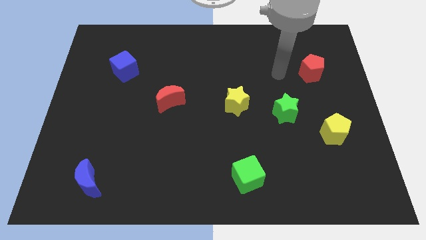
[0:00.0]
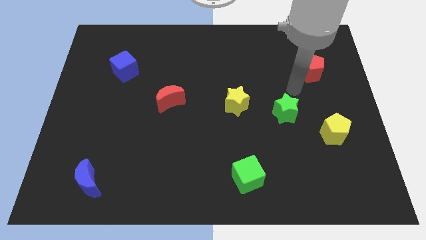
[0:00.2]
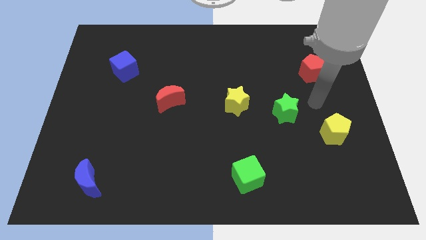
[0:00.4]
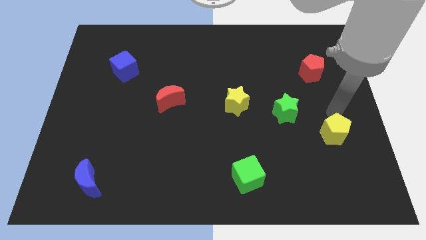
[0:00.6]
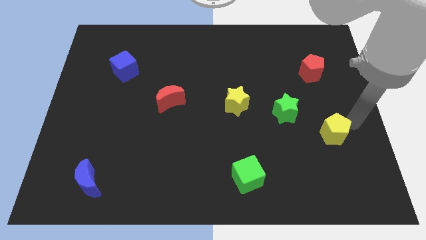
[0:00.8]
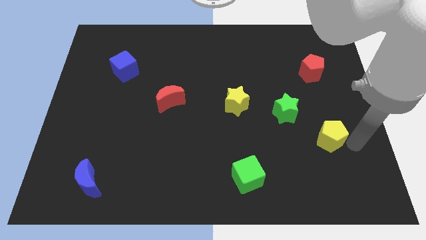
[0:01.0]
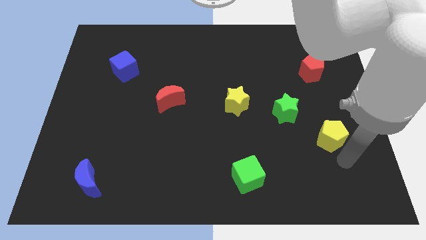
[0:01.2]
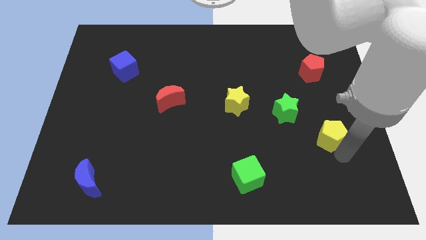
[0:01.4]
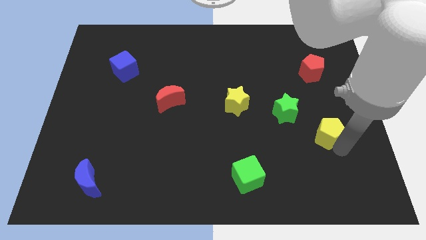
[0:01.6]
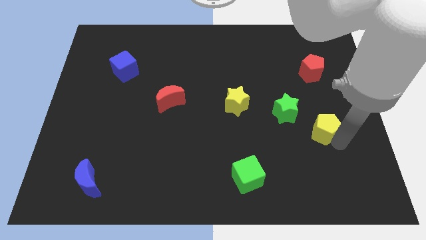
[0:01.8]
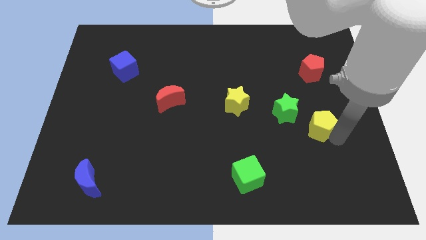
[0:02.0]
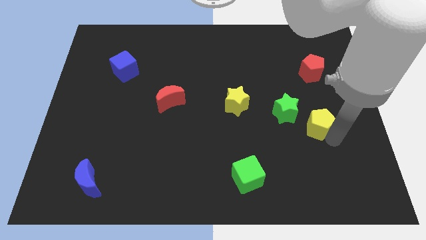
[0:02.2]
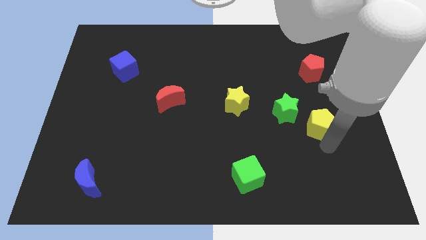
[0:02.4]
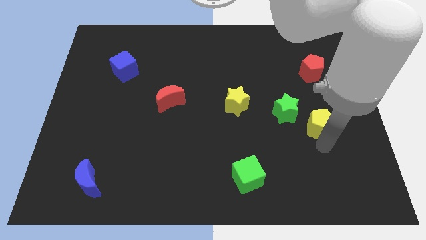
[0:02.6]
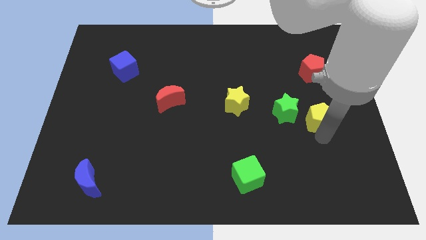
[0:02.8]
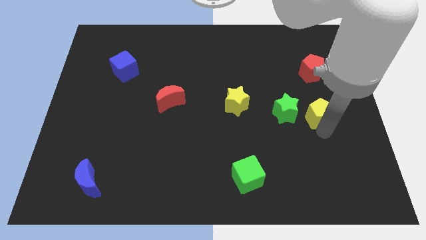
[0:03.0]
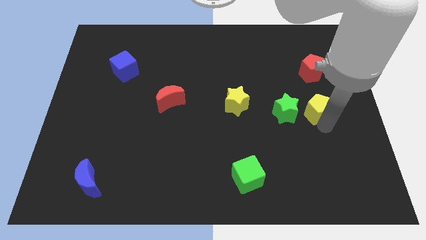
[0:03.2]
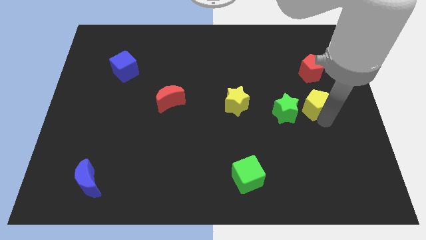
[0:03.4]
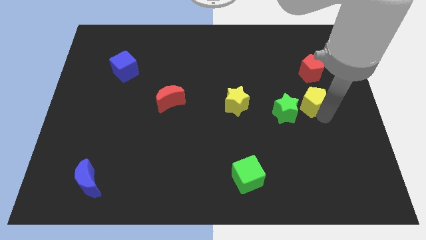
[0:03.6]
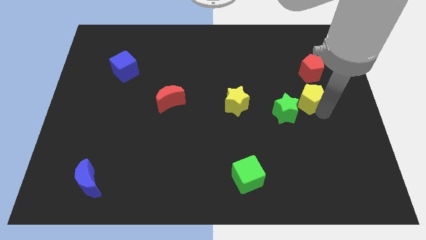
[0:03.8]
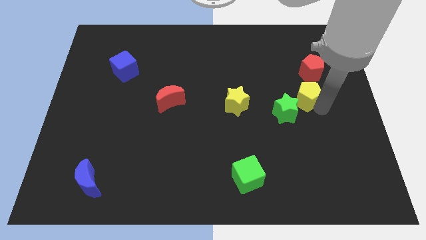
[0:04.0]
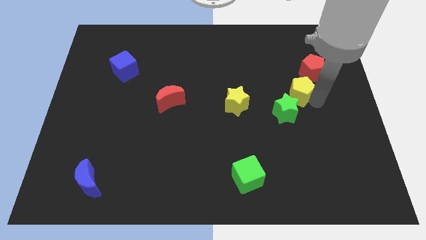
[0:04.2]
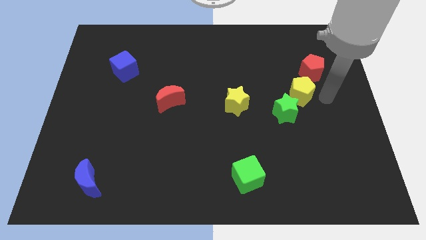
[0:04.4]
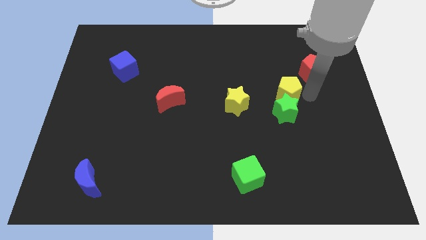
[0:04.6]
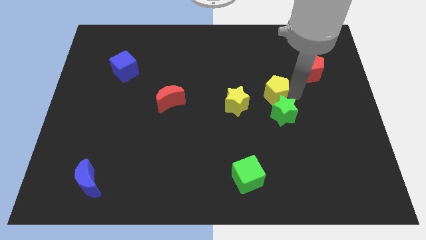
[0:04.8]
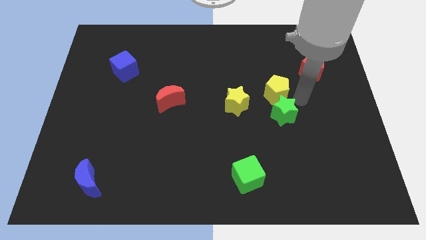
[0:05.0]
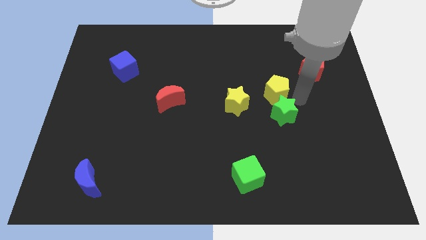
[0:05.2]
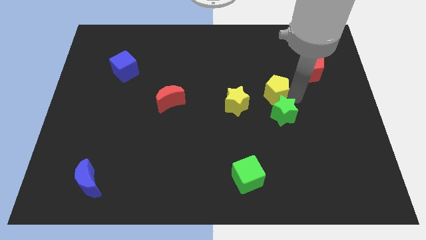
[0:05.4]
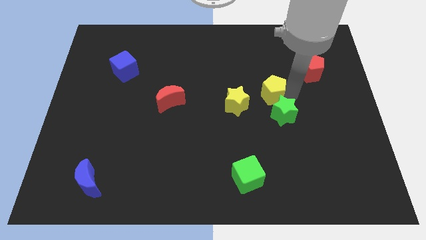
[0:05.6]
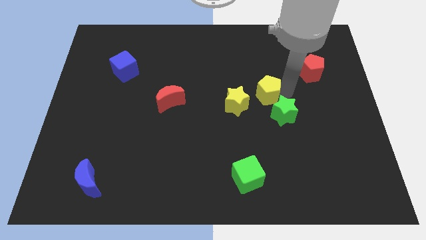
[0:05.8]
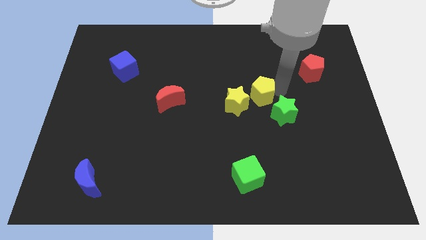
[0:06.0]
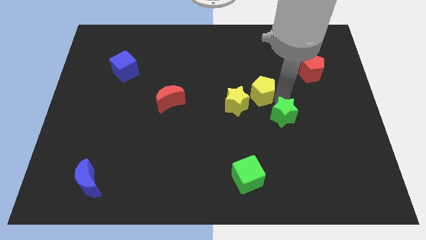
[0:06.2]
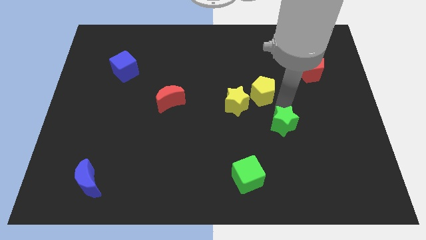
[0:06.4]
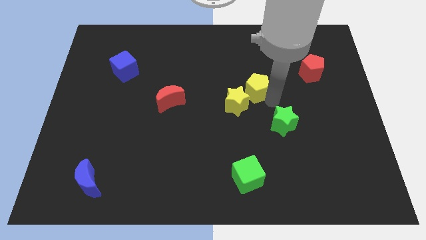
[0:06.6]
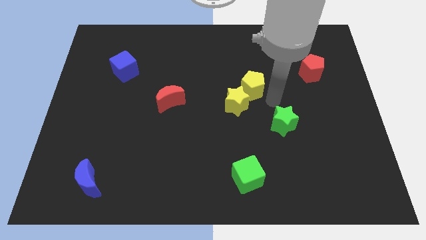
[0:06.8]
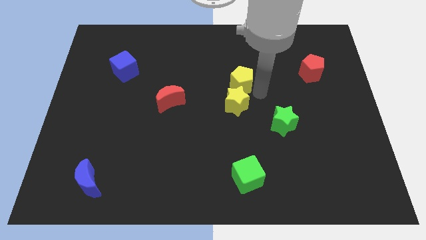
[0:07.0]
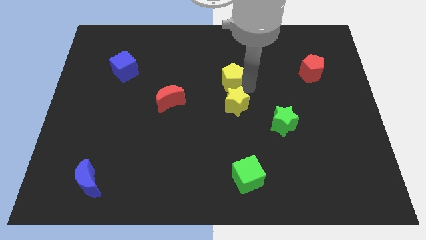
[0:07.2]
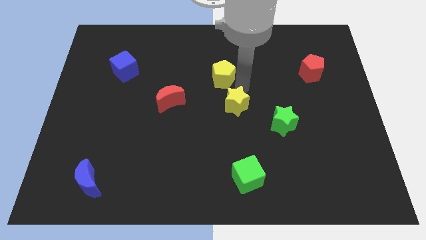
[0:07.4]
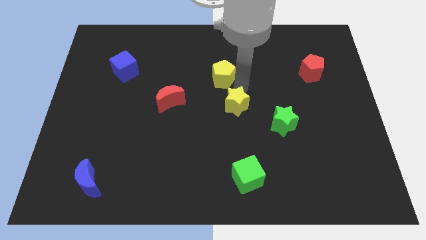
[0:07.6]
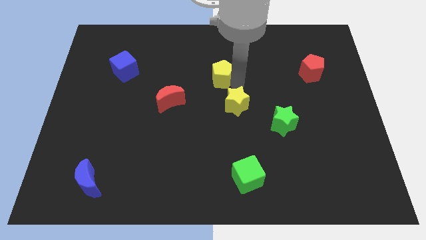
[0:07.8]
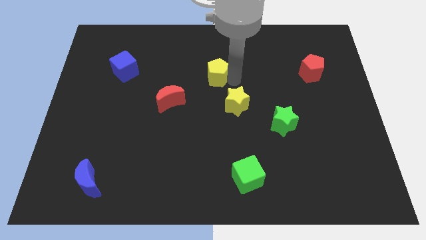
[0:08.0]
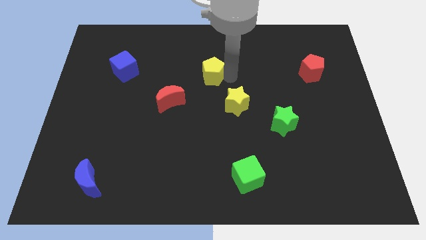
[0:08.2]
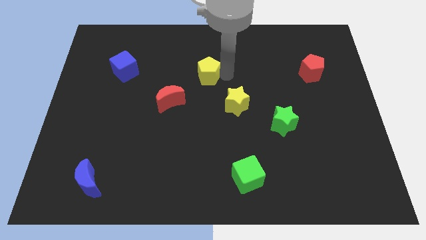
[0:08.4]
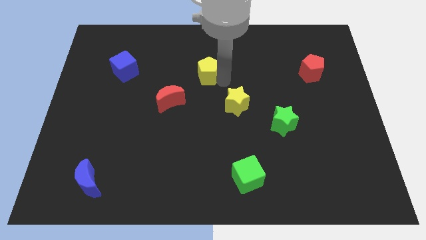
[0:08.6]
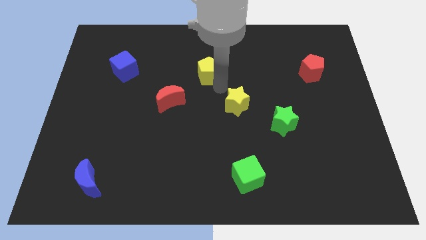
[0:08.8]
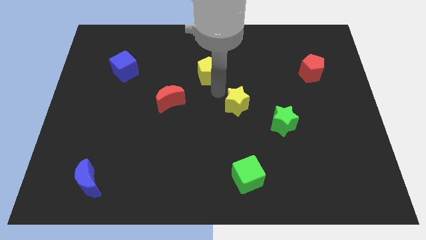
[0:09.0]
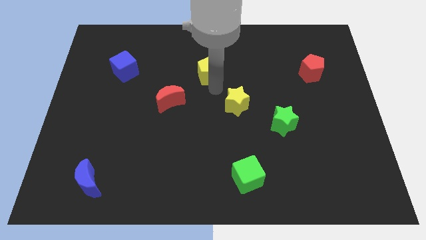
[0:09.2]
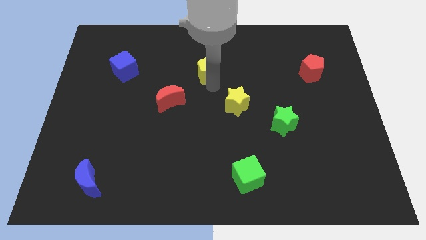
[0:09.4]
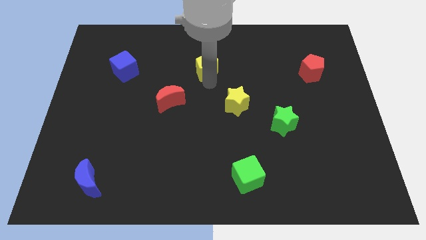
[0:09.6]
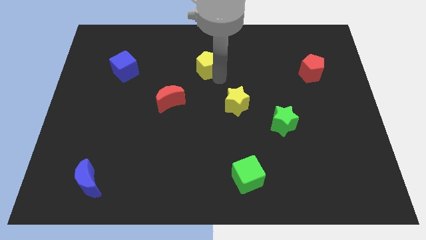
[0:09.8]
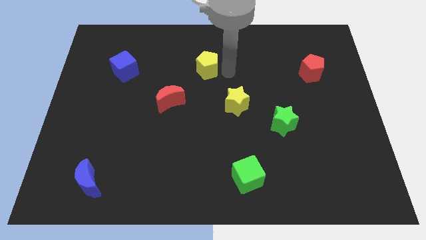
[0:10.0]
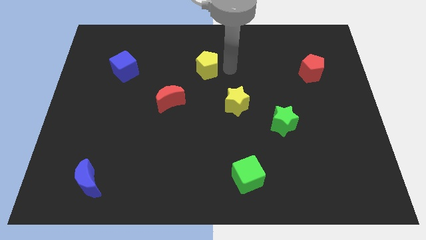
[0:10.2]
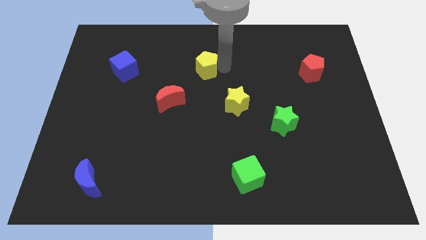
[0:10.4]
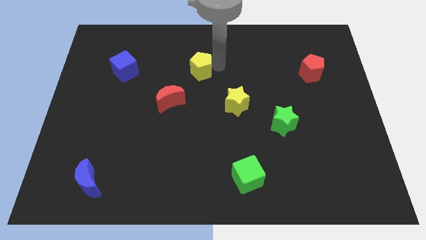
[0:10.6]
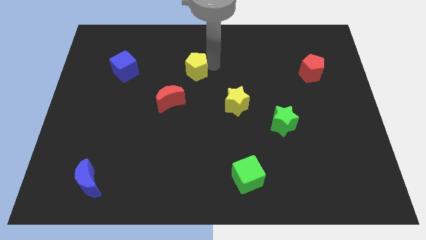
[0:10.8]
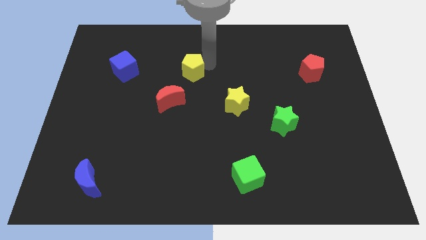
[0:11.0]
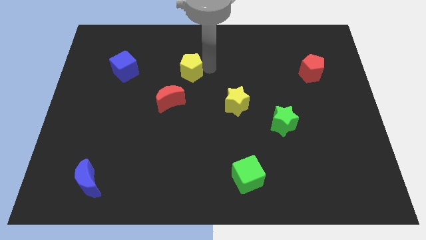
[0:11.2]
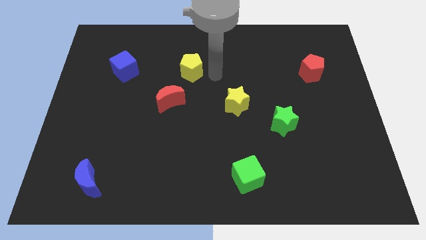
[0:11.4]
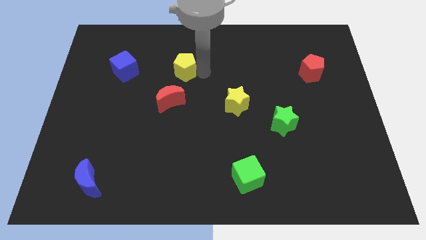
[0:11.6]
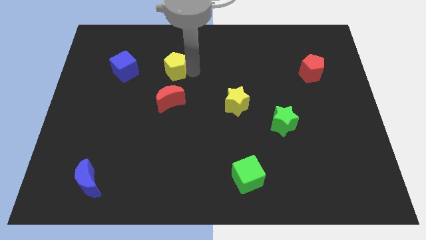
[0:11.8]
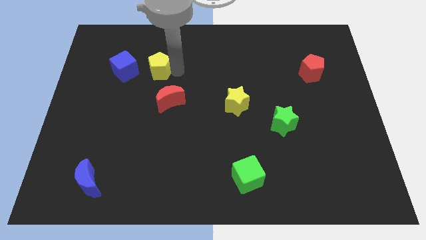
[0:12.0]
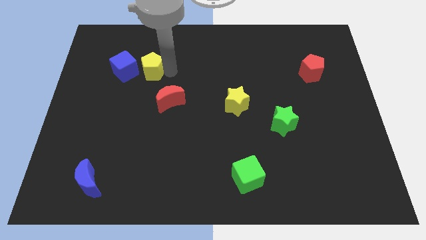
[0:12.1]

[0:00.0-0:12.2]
push the yellow pentagon to the top right of the blue cube
